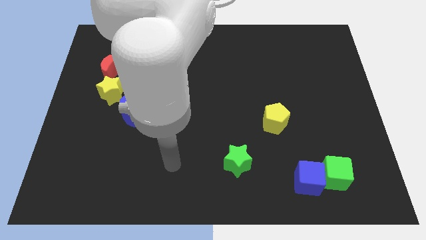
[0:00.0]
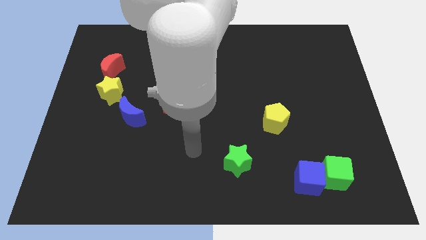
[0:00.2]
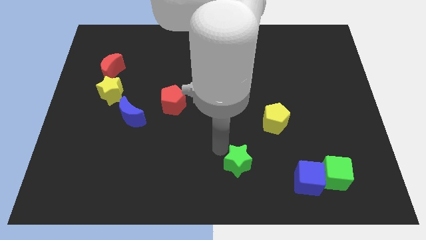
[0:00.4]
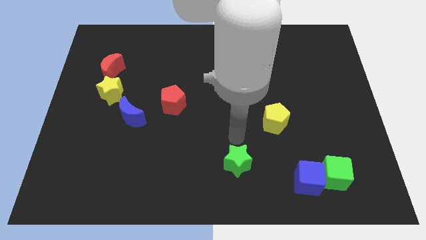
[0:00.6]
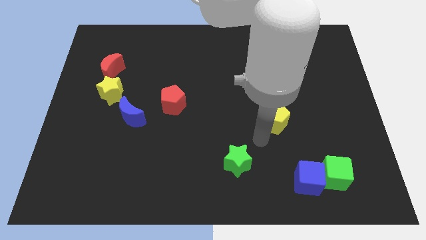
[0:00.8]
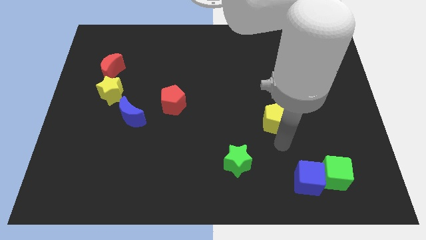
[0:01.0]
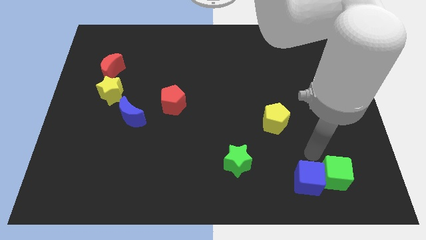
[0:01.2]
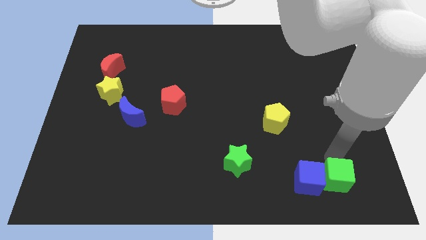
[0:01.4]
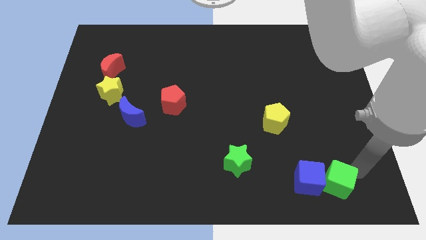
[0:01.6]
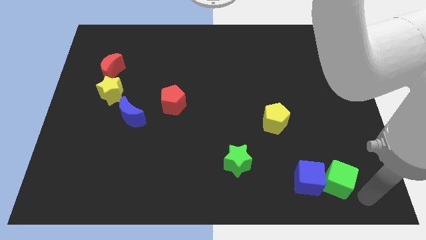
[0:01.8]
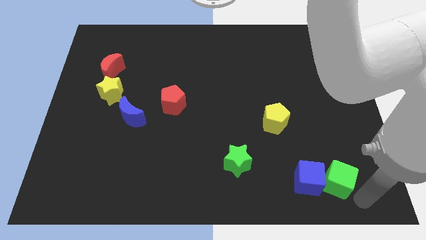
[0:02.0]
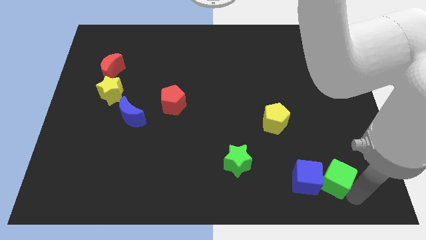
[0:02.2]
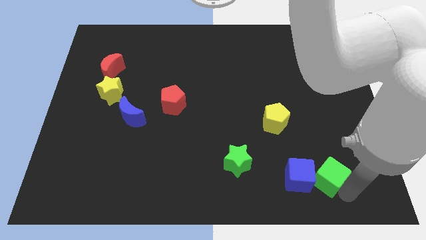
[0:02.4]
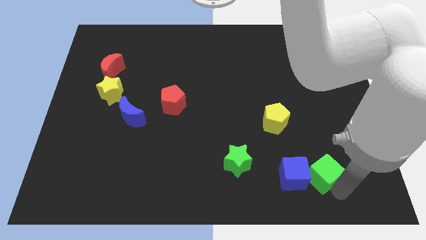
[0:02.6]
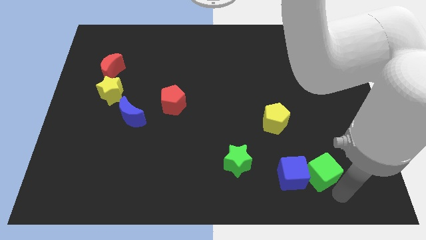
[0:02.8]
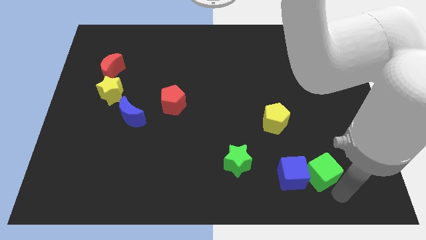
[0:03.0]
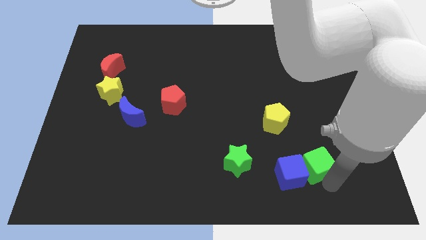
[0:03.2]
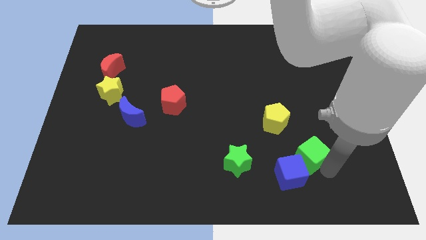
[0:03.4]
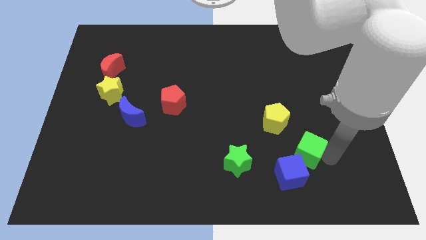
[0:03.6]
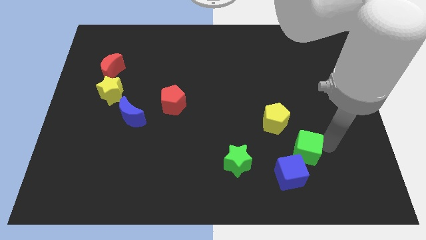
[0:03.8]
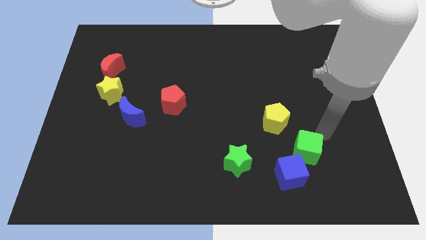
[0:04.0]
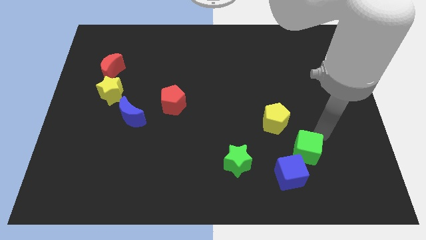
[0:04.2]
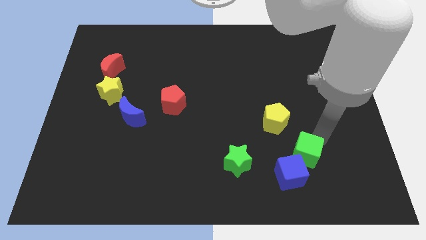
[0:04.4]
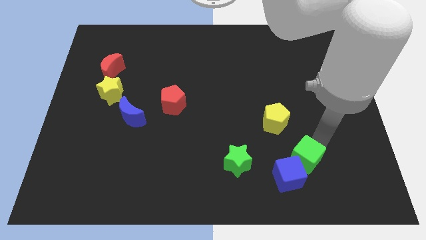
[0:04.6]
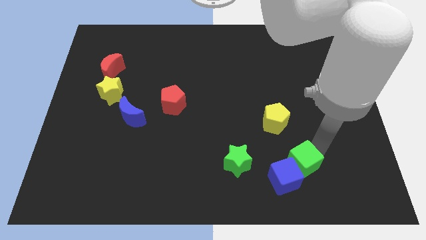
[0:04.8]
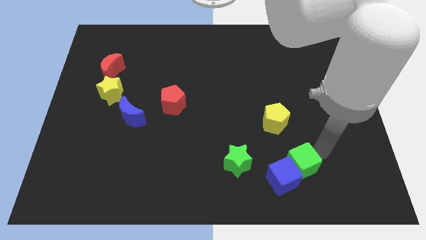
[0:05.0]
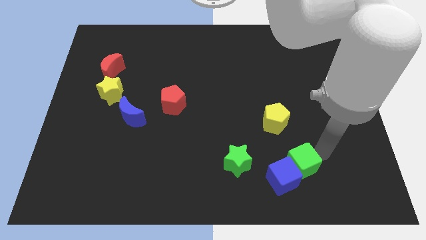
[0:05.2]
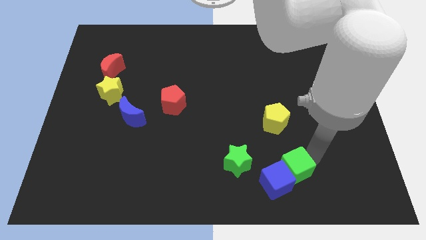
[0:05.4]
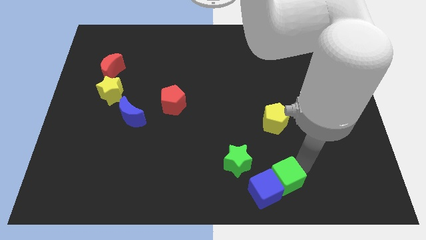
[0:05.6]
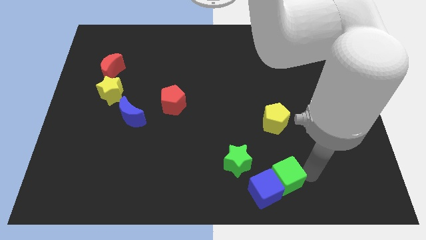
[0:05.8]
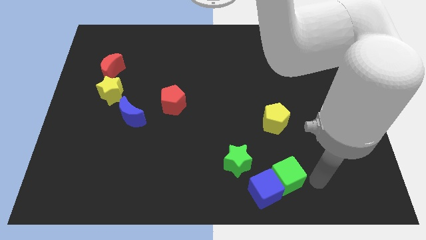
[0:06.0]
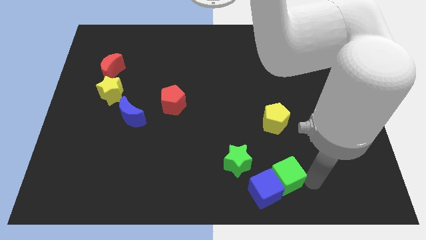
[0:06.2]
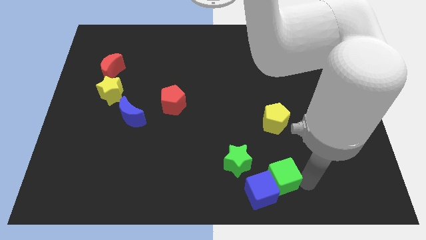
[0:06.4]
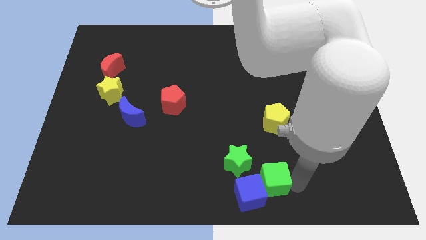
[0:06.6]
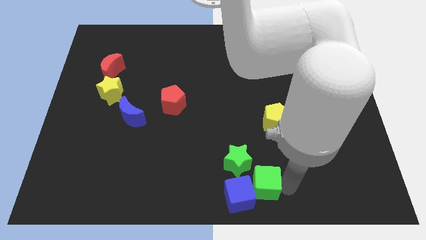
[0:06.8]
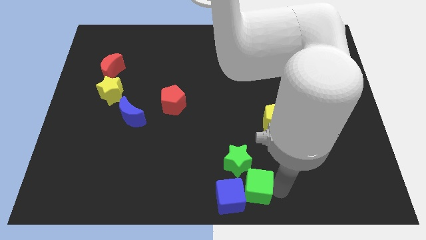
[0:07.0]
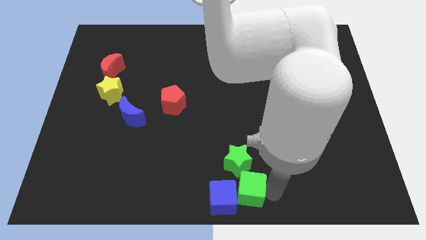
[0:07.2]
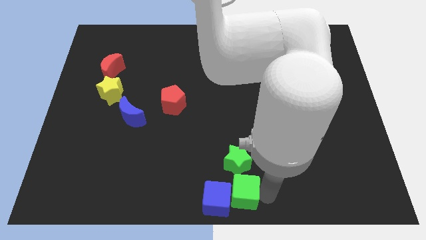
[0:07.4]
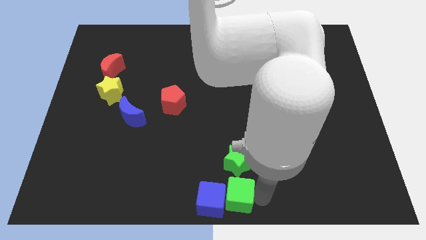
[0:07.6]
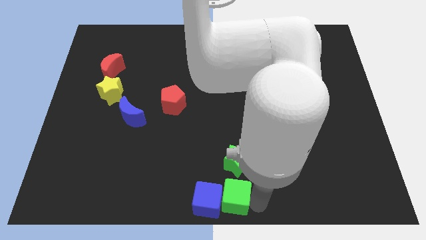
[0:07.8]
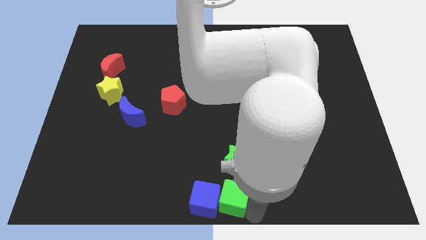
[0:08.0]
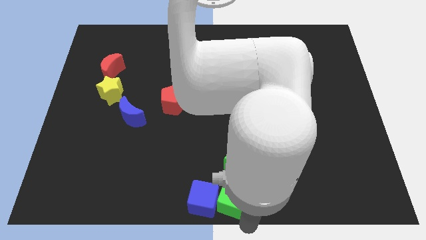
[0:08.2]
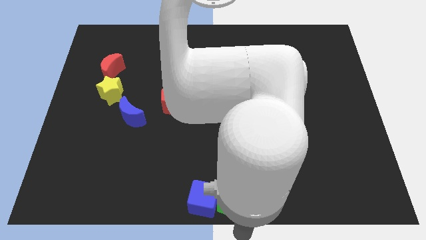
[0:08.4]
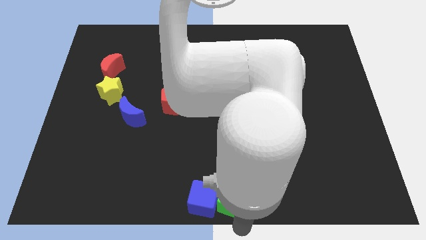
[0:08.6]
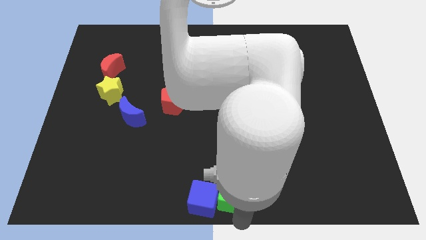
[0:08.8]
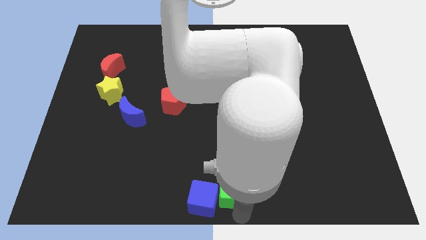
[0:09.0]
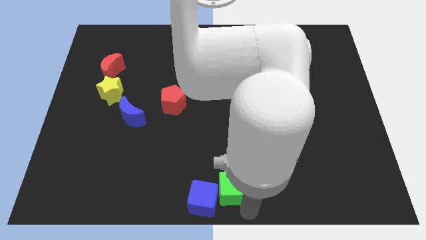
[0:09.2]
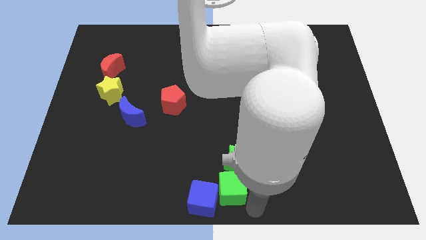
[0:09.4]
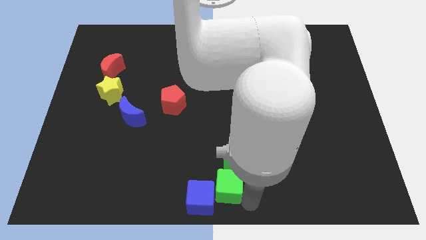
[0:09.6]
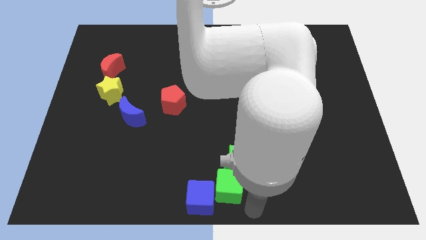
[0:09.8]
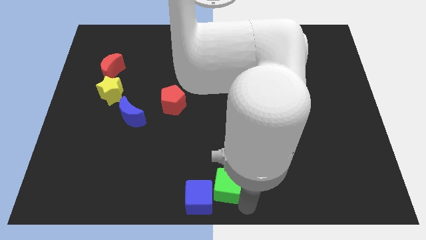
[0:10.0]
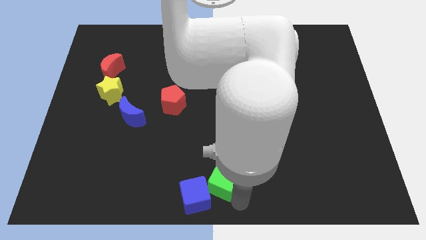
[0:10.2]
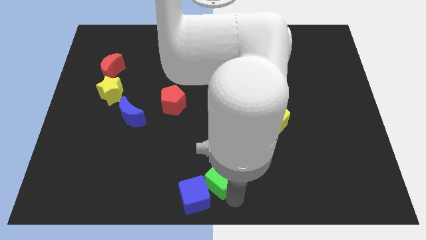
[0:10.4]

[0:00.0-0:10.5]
put the green cube just left of the green star

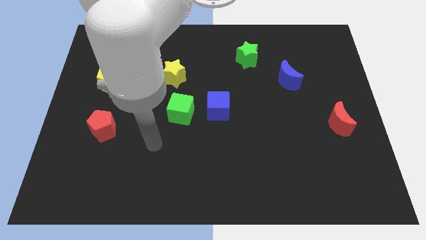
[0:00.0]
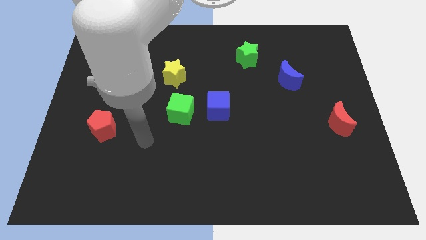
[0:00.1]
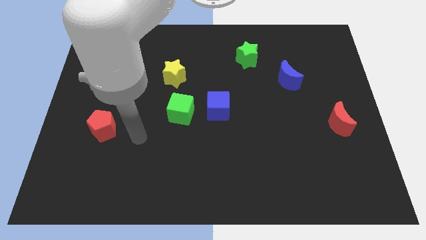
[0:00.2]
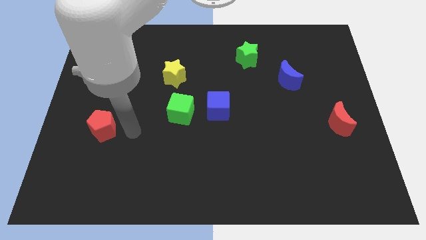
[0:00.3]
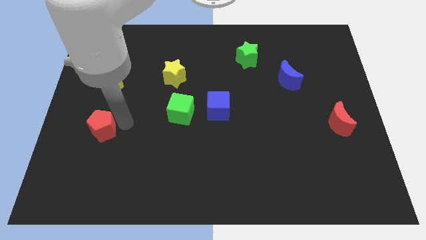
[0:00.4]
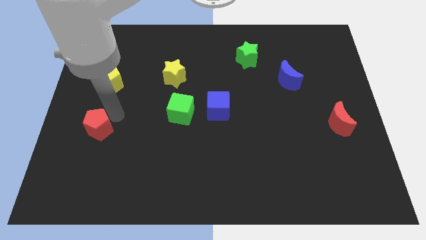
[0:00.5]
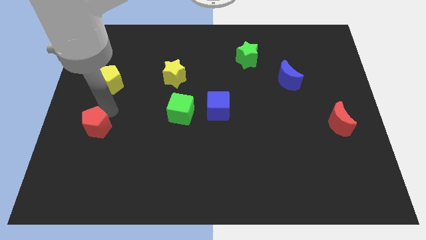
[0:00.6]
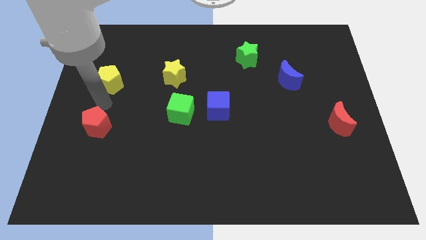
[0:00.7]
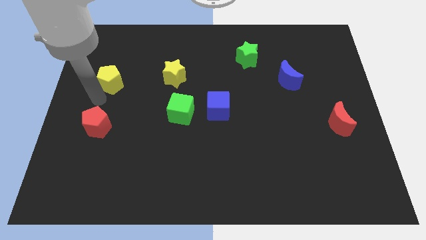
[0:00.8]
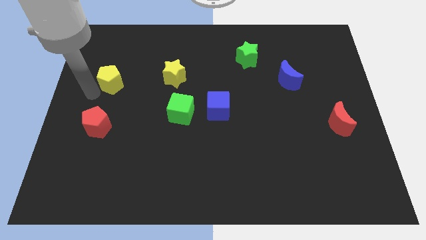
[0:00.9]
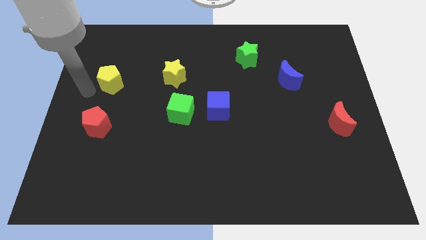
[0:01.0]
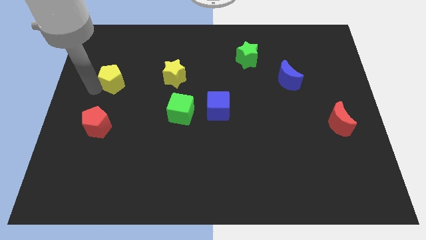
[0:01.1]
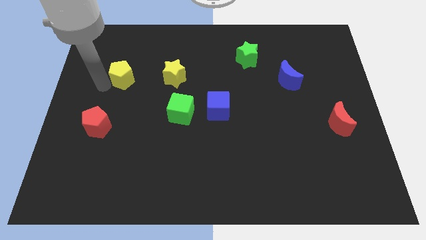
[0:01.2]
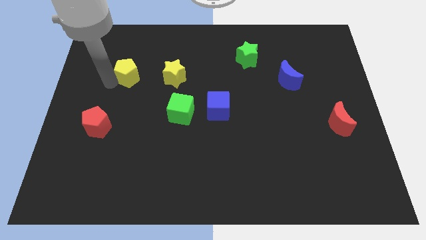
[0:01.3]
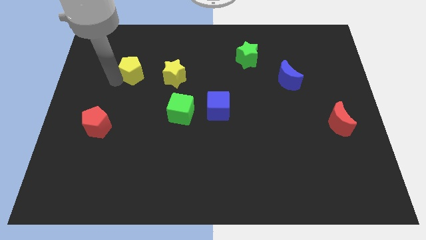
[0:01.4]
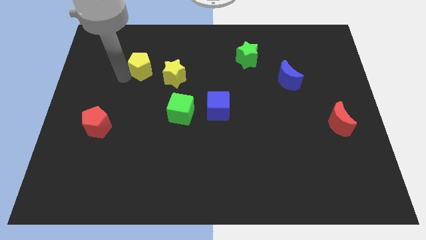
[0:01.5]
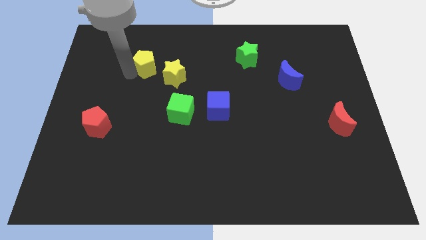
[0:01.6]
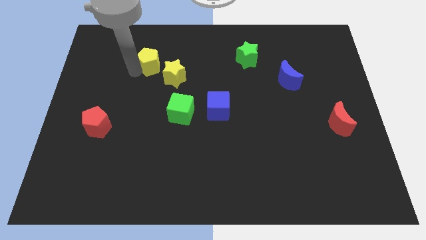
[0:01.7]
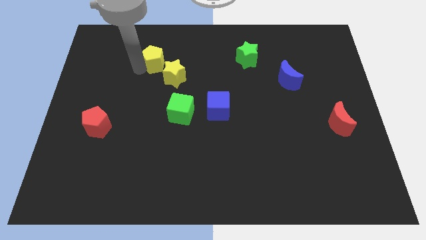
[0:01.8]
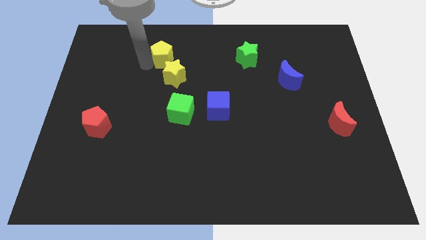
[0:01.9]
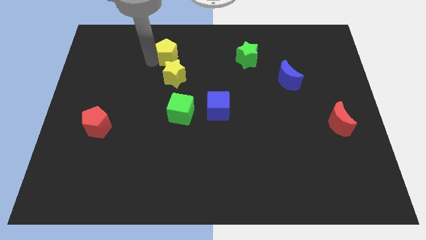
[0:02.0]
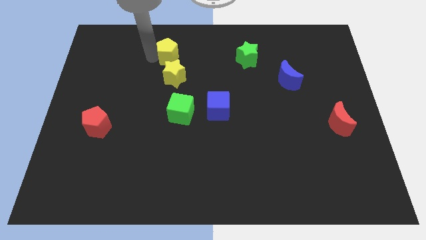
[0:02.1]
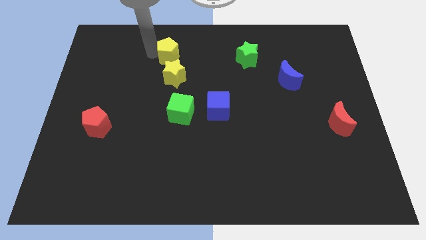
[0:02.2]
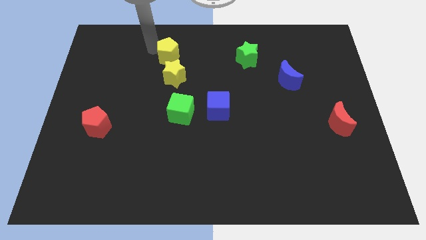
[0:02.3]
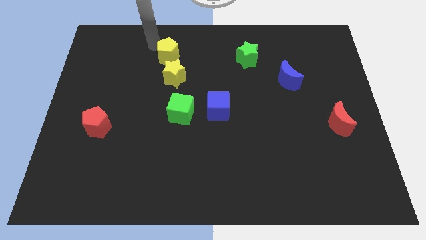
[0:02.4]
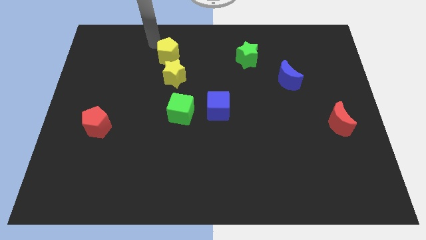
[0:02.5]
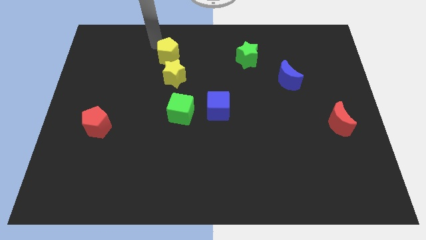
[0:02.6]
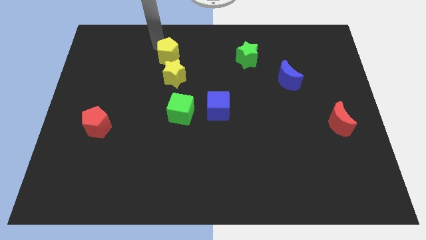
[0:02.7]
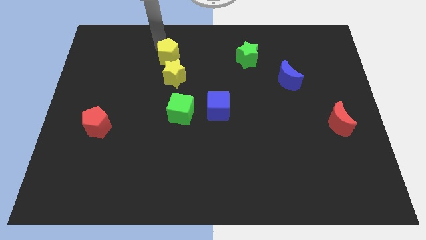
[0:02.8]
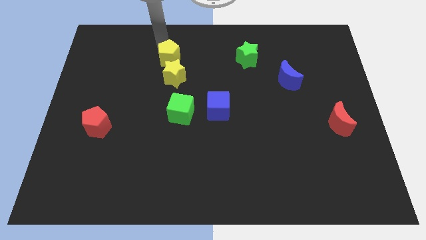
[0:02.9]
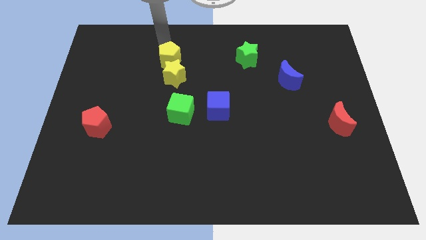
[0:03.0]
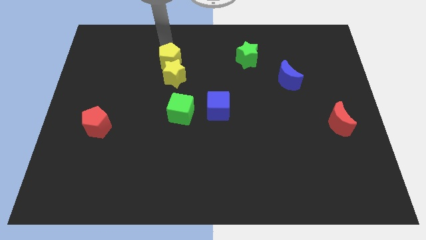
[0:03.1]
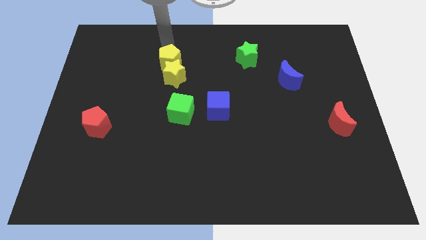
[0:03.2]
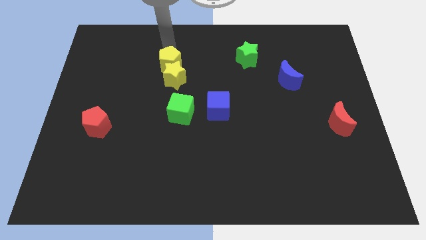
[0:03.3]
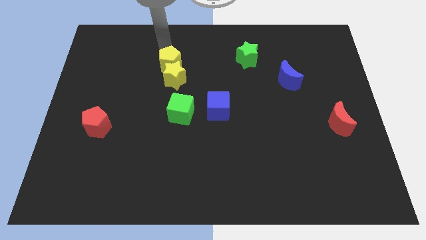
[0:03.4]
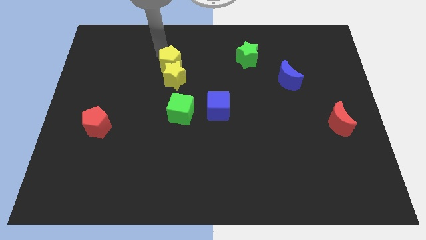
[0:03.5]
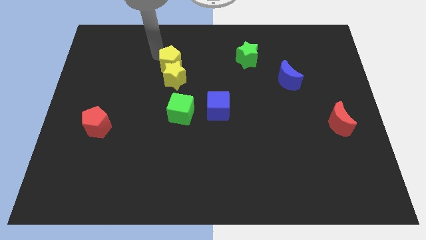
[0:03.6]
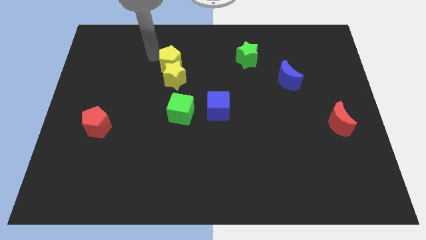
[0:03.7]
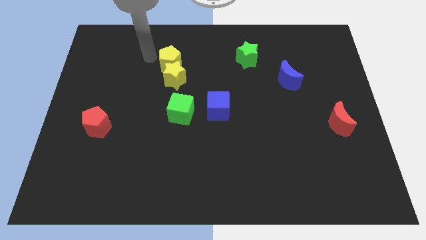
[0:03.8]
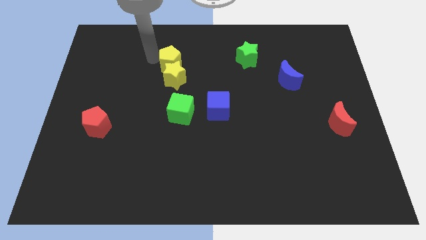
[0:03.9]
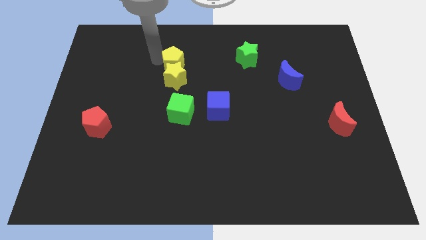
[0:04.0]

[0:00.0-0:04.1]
move the yellow pentagon to the top side of the green cube
